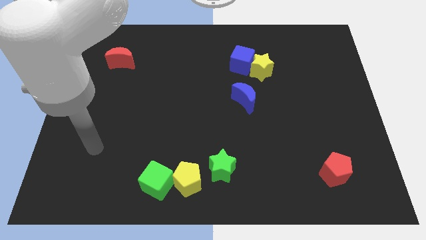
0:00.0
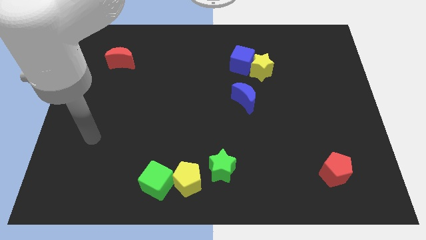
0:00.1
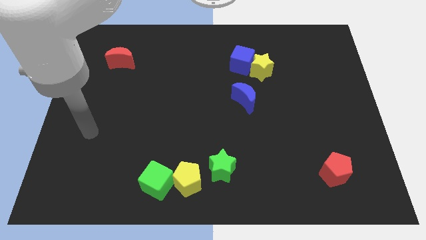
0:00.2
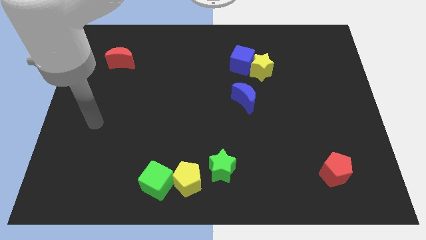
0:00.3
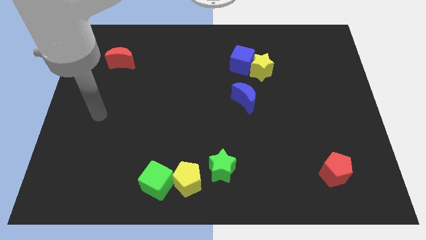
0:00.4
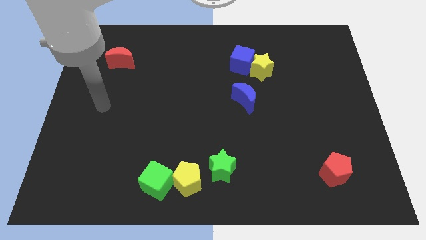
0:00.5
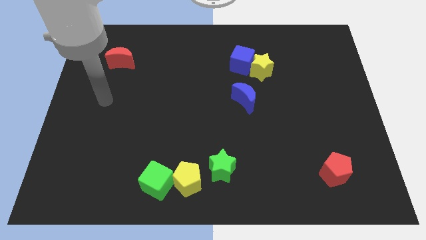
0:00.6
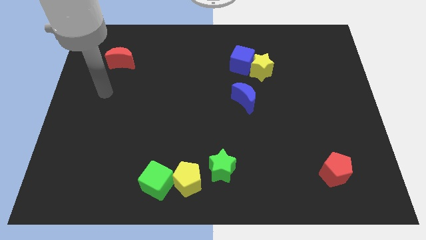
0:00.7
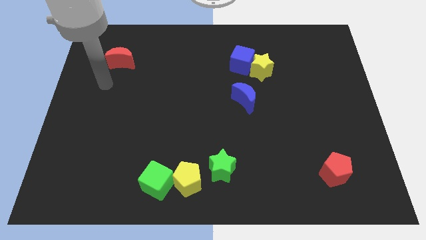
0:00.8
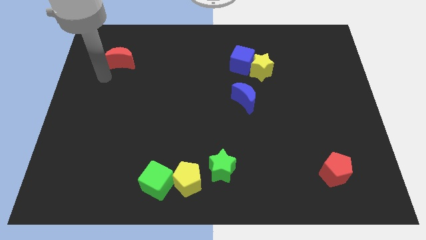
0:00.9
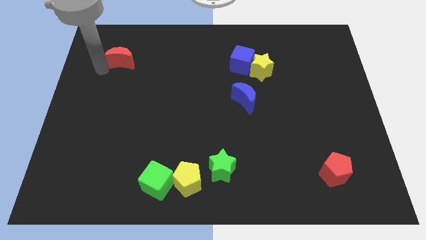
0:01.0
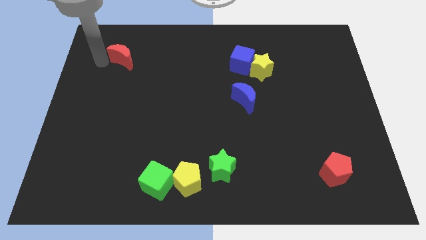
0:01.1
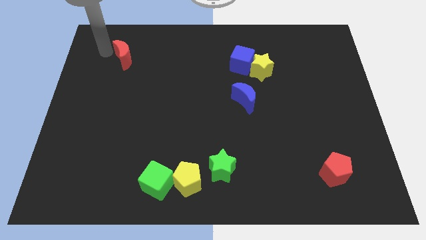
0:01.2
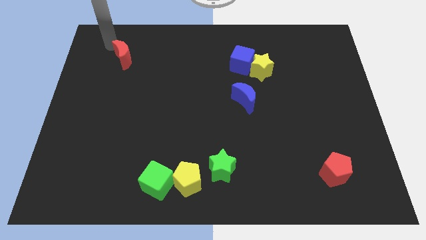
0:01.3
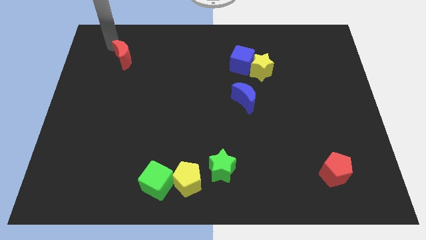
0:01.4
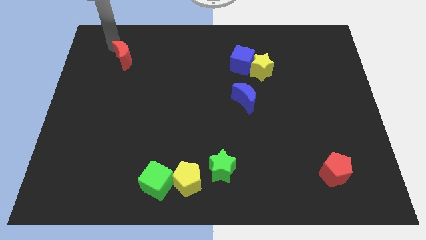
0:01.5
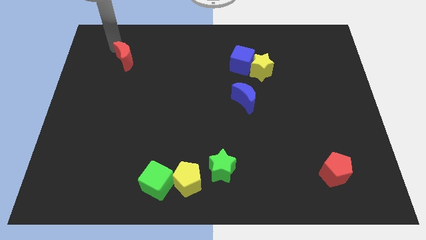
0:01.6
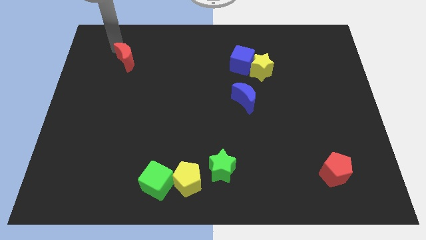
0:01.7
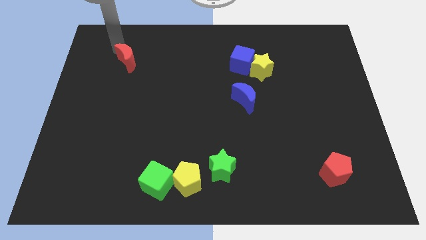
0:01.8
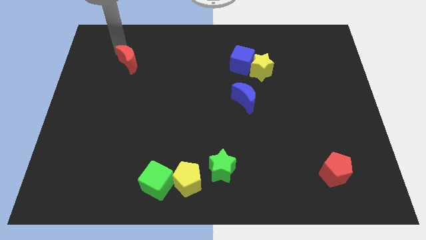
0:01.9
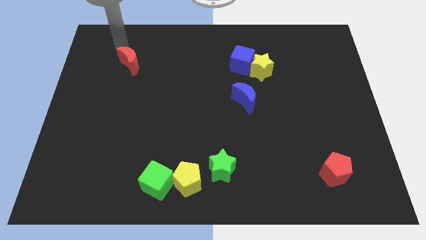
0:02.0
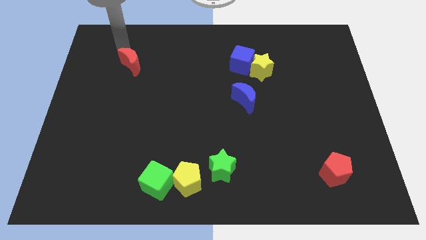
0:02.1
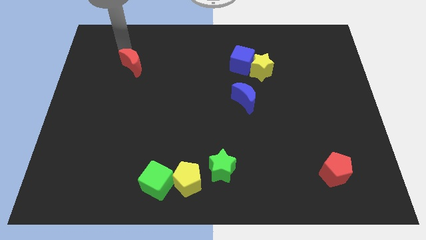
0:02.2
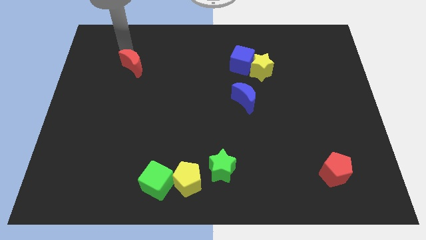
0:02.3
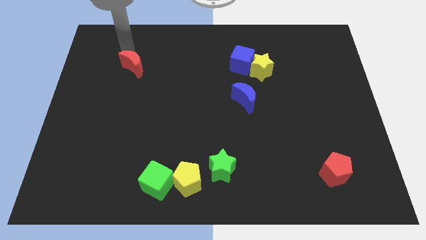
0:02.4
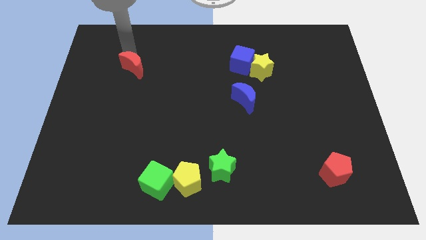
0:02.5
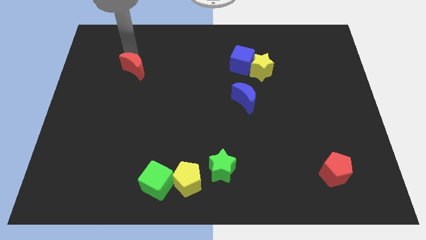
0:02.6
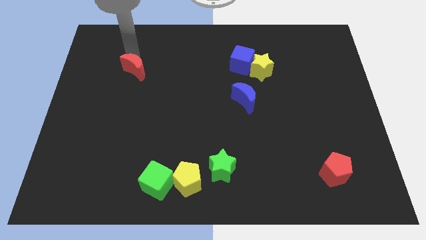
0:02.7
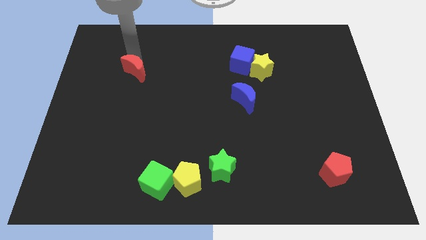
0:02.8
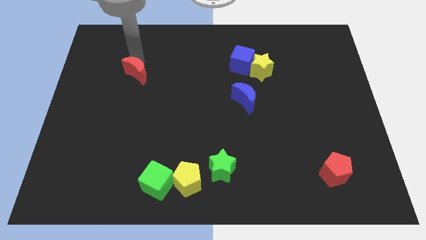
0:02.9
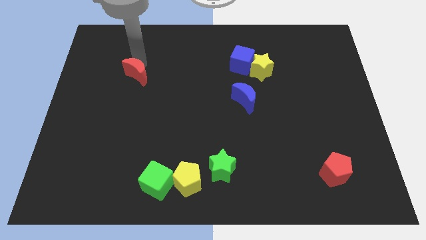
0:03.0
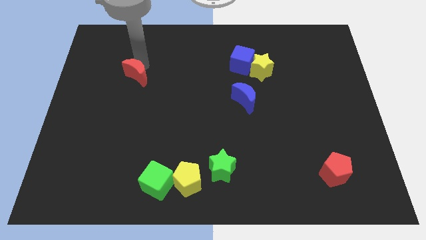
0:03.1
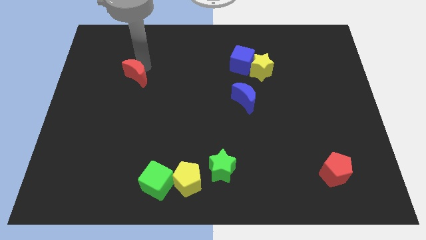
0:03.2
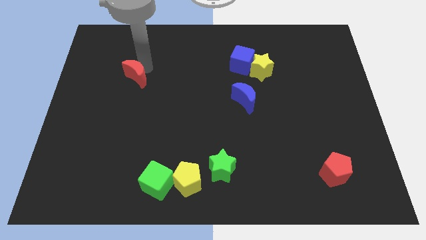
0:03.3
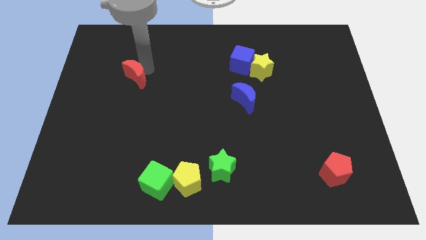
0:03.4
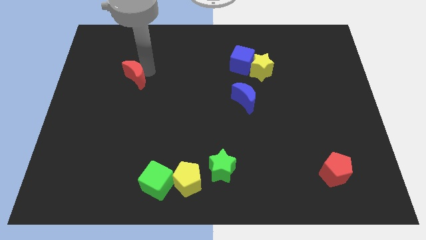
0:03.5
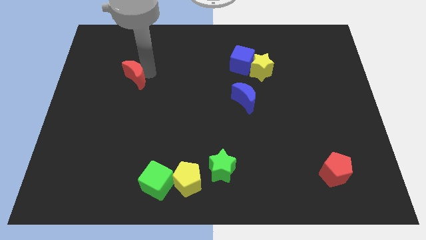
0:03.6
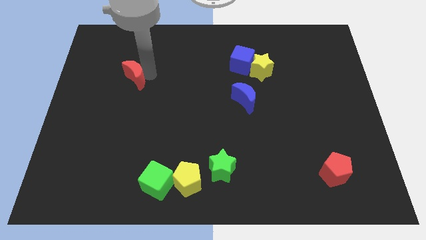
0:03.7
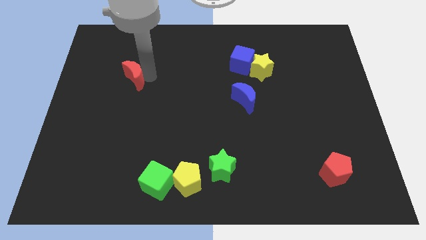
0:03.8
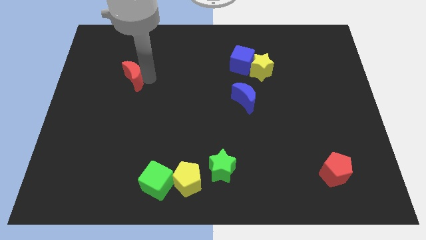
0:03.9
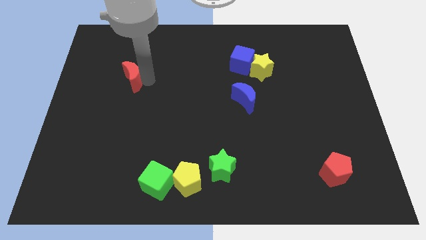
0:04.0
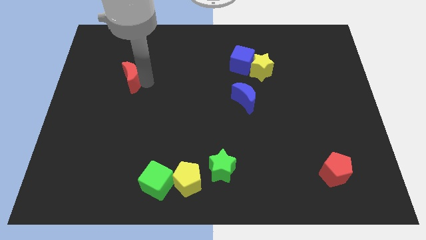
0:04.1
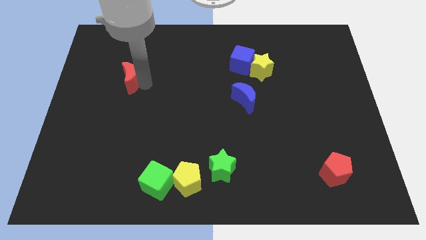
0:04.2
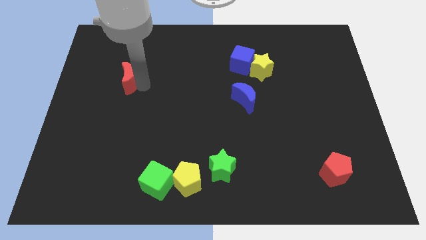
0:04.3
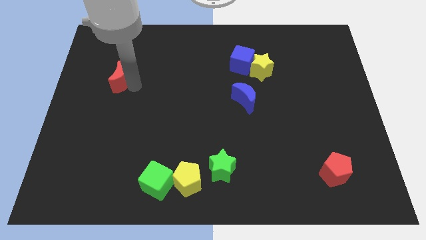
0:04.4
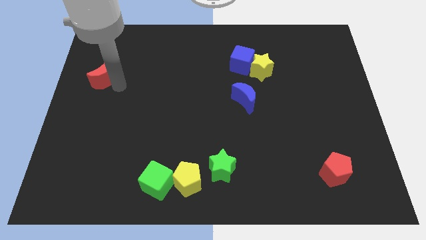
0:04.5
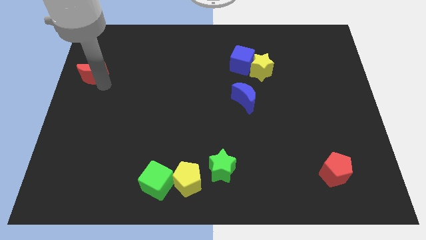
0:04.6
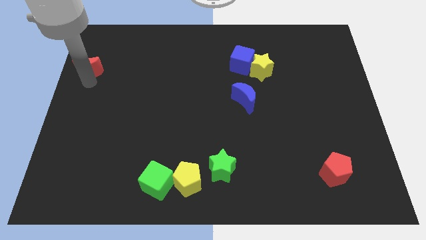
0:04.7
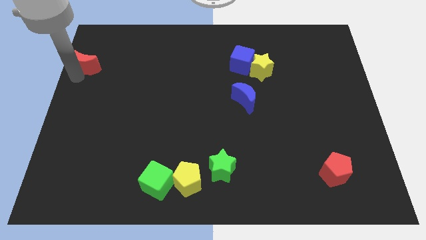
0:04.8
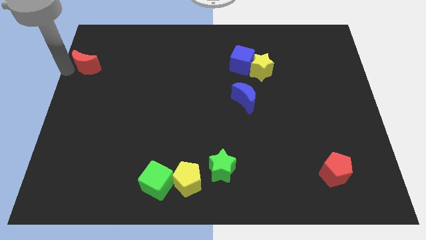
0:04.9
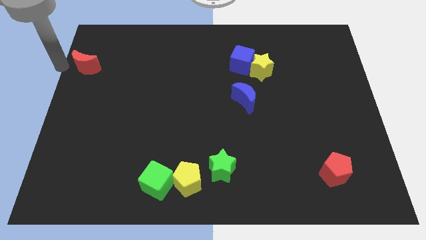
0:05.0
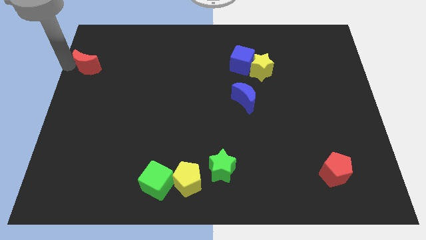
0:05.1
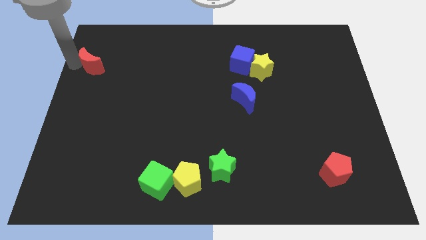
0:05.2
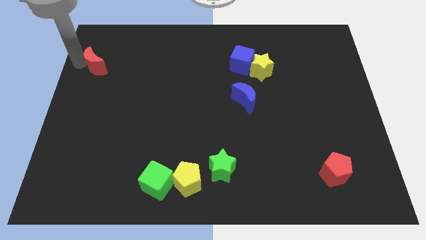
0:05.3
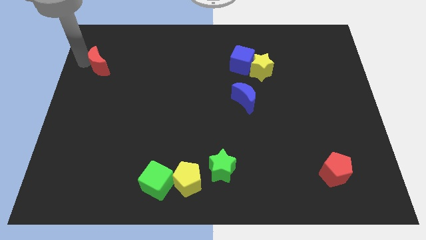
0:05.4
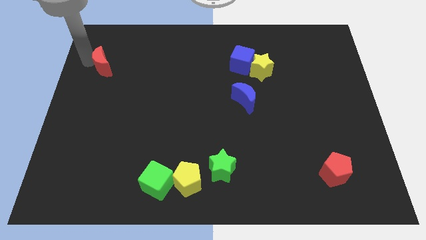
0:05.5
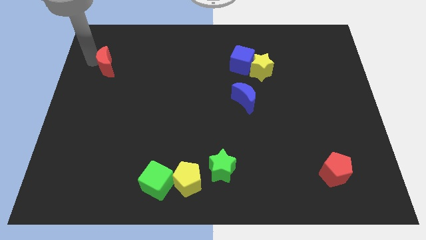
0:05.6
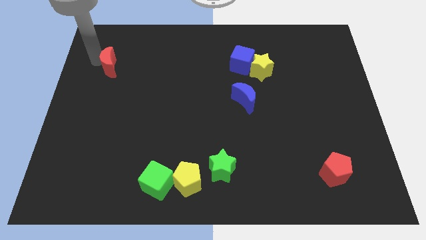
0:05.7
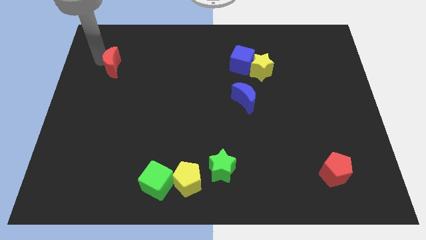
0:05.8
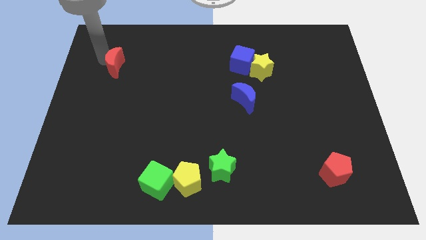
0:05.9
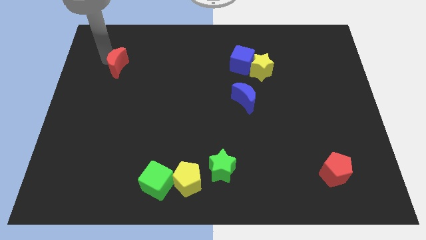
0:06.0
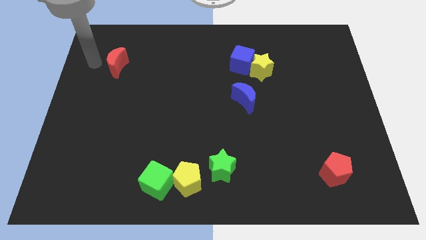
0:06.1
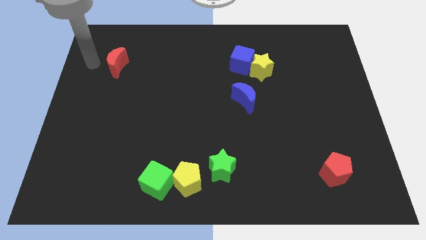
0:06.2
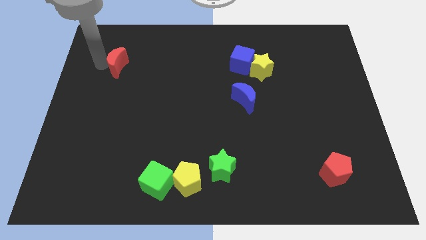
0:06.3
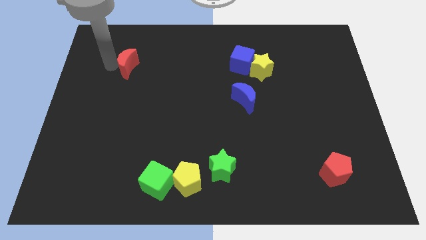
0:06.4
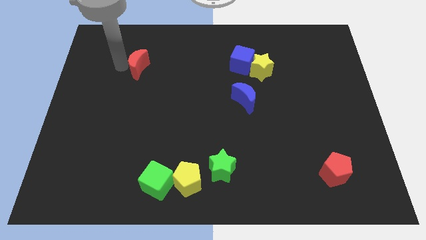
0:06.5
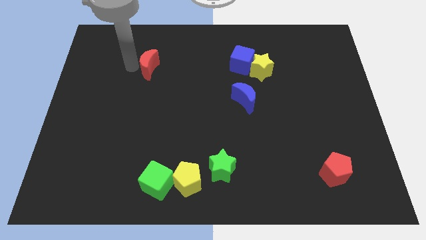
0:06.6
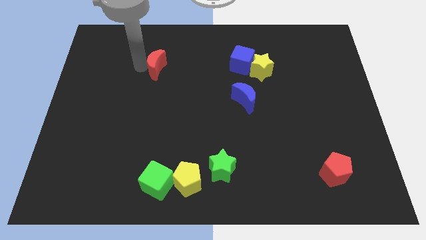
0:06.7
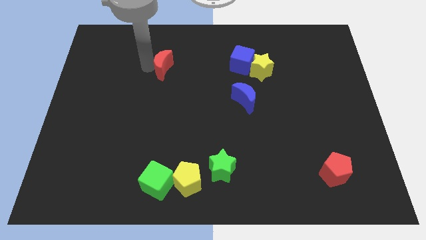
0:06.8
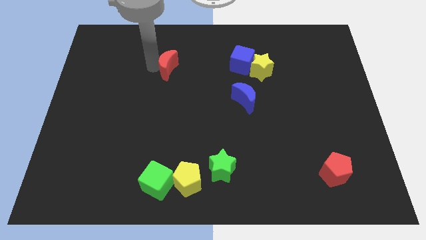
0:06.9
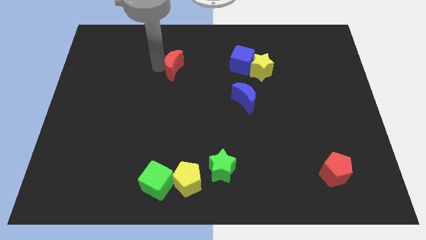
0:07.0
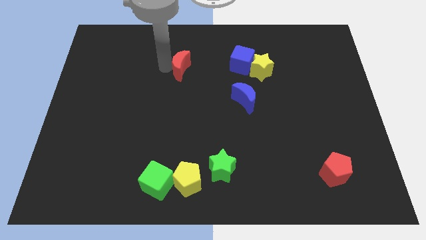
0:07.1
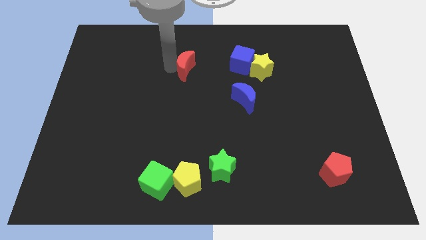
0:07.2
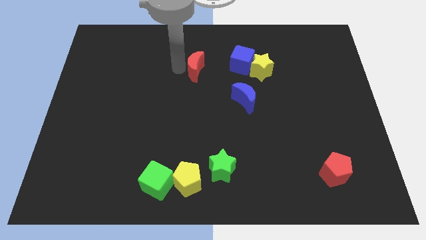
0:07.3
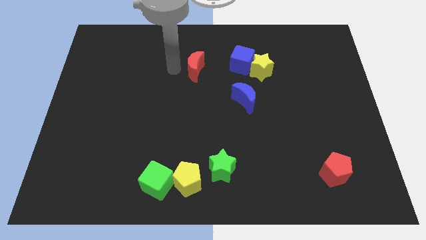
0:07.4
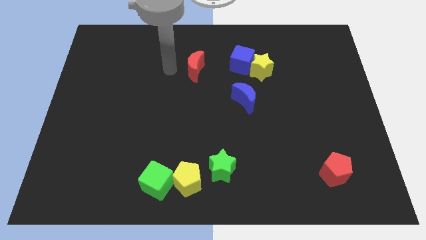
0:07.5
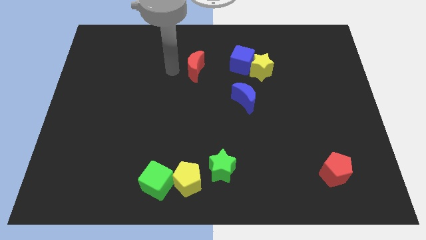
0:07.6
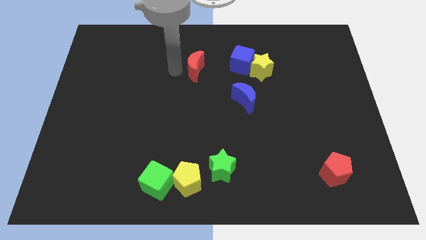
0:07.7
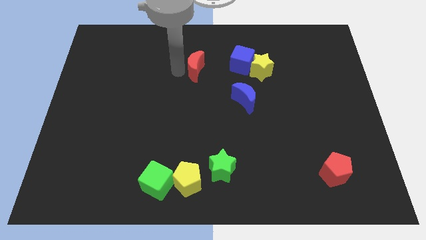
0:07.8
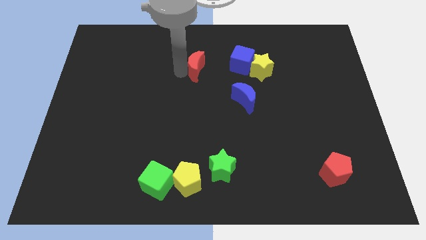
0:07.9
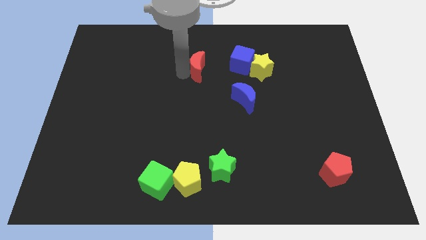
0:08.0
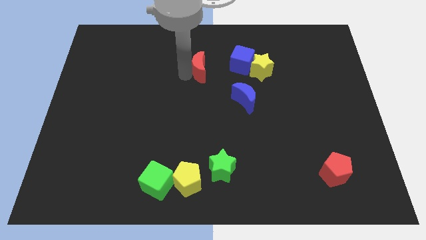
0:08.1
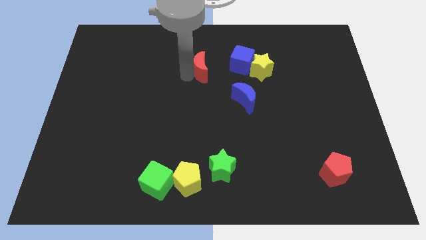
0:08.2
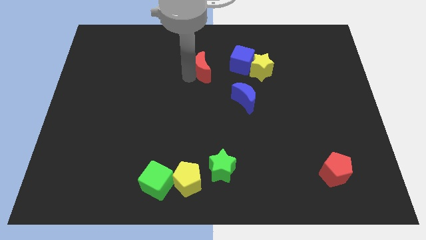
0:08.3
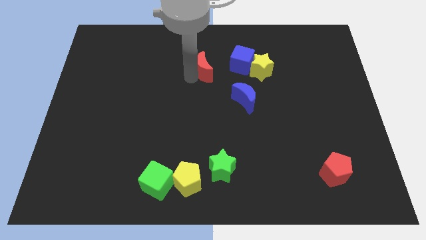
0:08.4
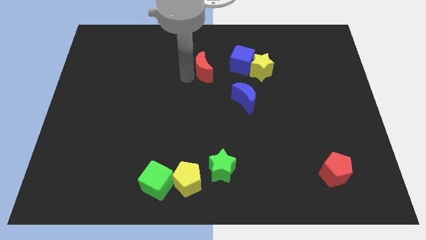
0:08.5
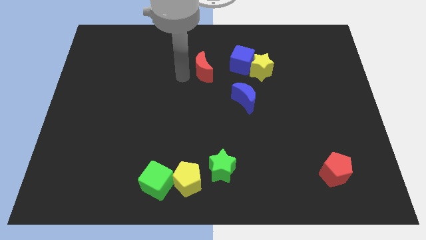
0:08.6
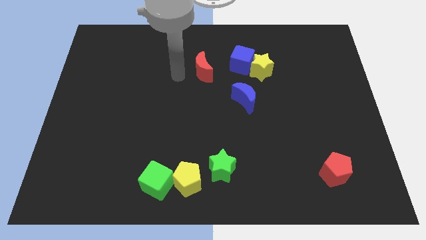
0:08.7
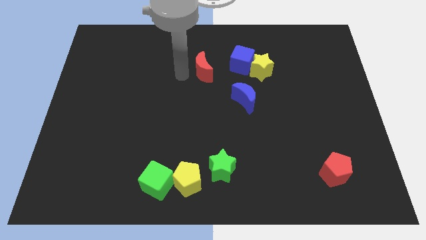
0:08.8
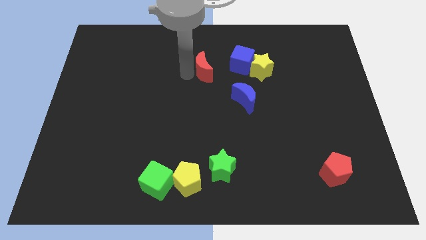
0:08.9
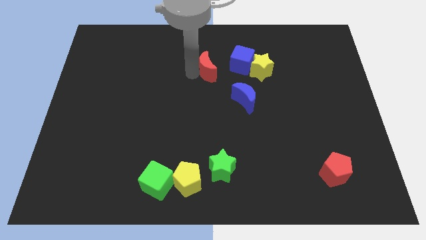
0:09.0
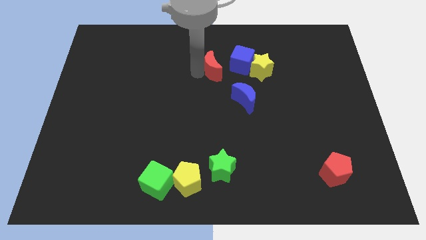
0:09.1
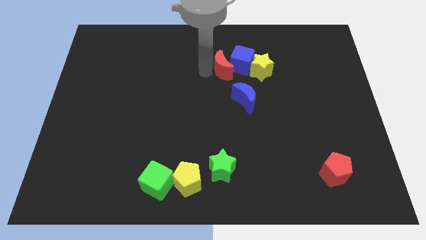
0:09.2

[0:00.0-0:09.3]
move the red moon next to the blue cube
